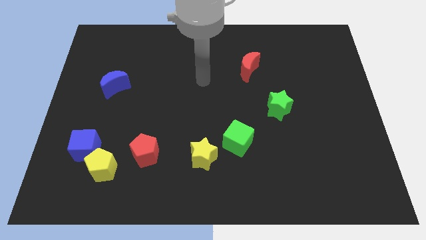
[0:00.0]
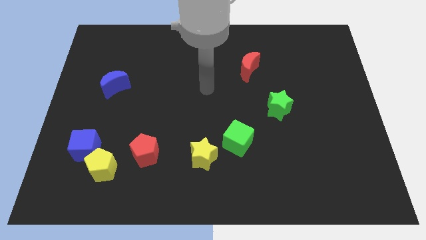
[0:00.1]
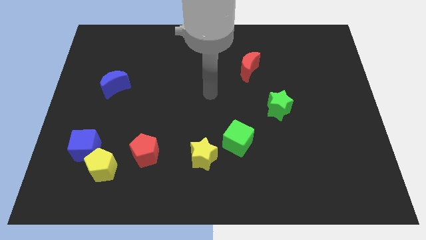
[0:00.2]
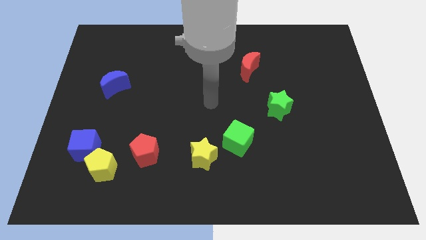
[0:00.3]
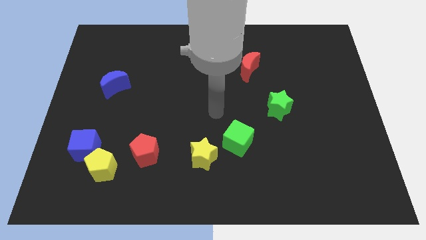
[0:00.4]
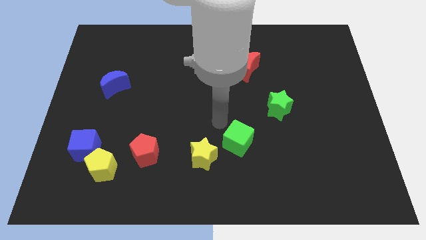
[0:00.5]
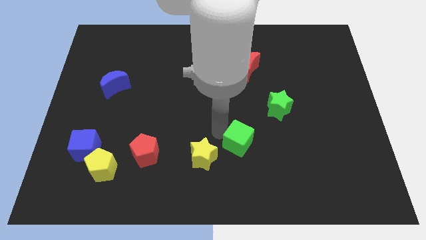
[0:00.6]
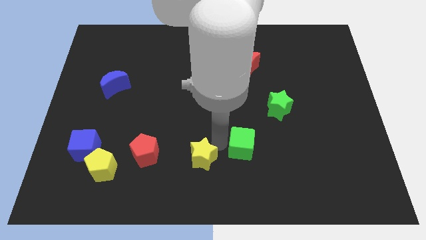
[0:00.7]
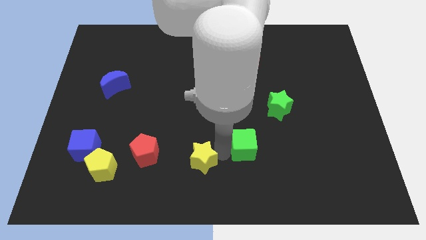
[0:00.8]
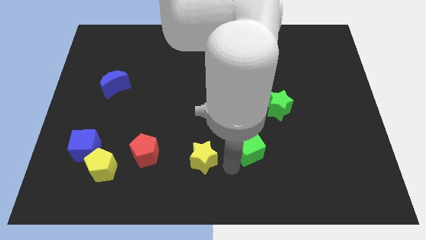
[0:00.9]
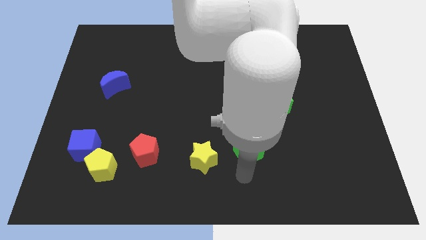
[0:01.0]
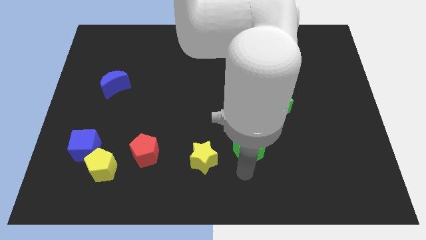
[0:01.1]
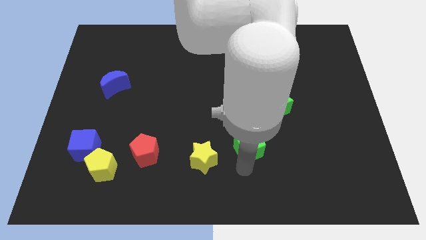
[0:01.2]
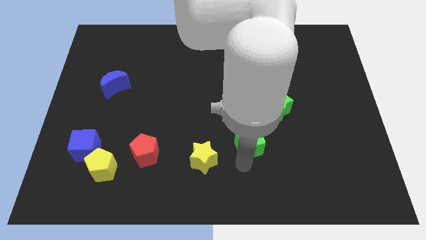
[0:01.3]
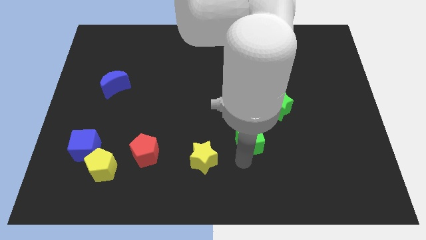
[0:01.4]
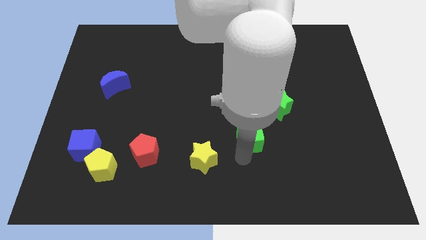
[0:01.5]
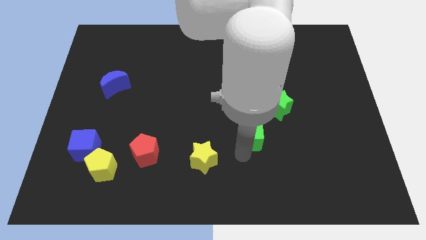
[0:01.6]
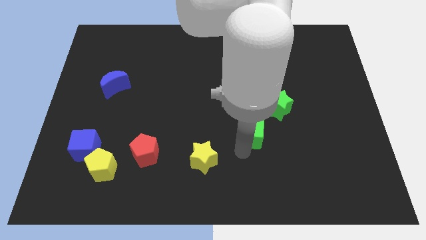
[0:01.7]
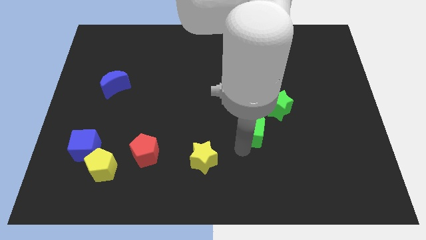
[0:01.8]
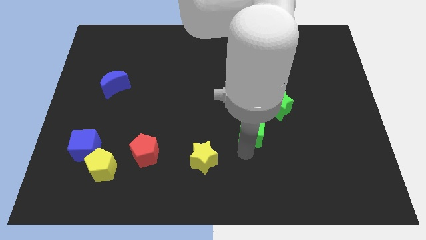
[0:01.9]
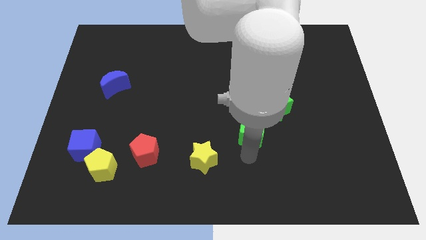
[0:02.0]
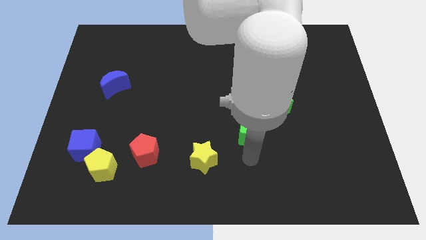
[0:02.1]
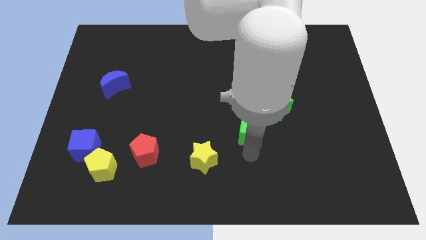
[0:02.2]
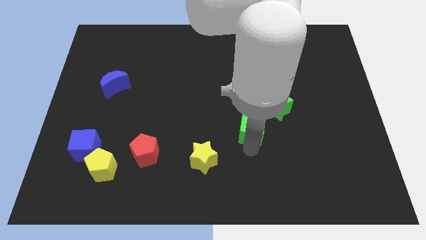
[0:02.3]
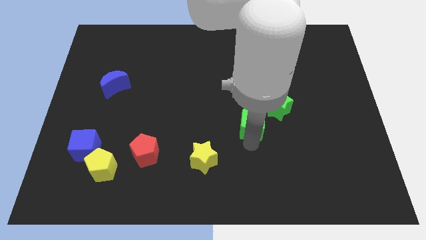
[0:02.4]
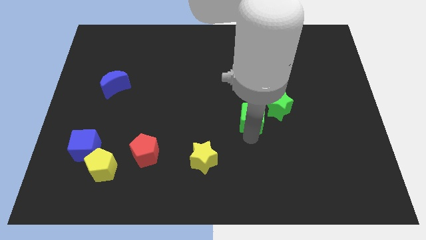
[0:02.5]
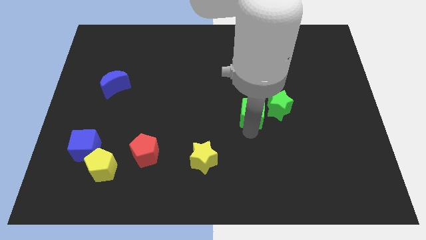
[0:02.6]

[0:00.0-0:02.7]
slightly push the green cube up and to the right

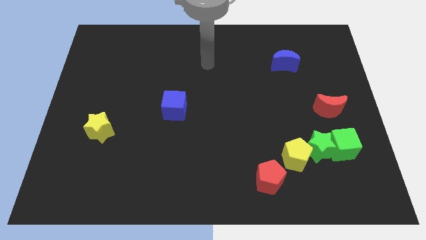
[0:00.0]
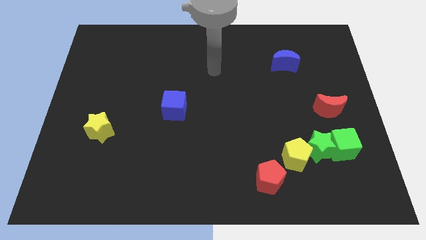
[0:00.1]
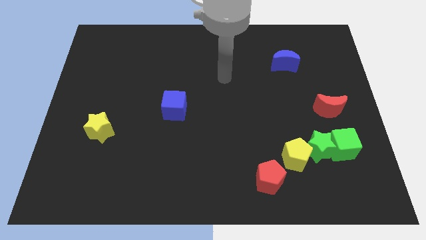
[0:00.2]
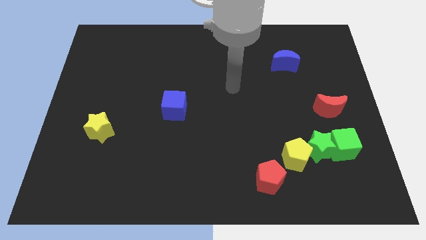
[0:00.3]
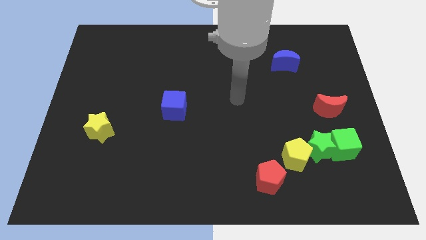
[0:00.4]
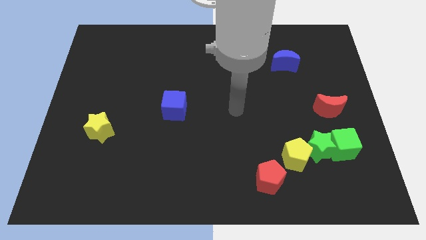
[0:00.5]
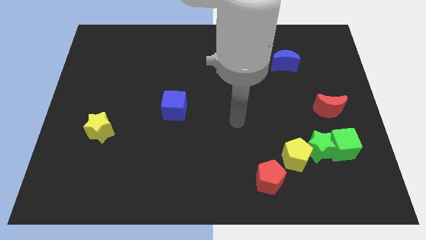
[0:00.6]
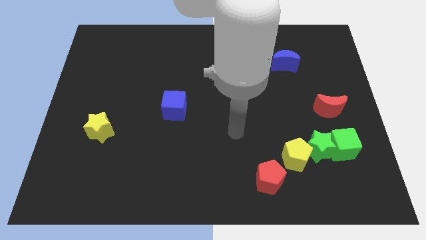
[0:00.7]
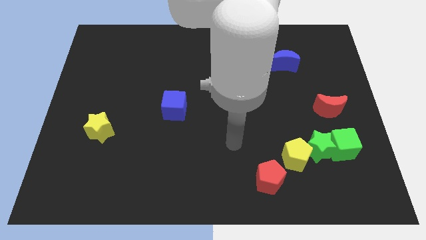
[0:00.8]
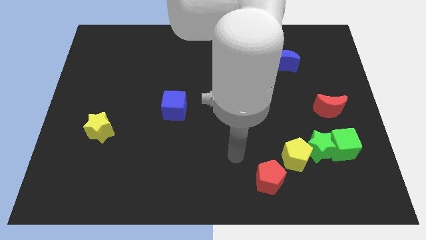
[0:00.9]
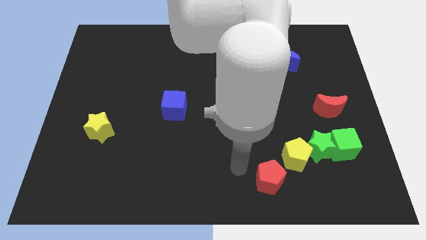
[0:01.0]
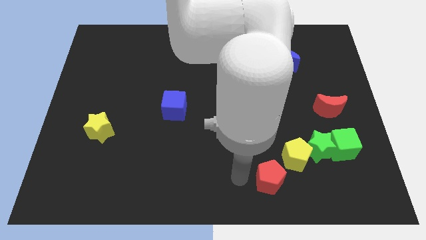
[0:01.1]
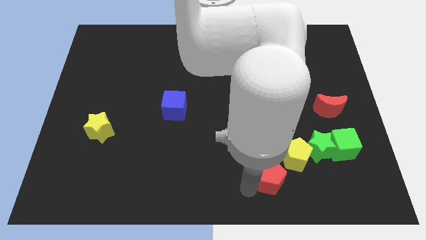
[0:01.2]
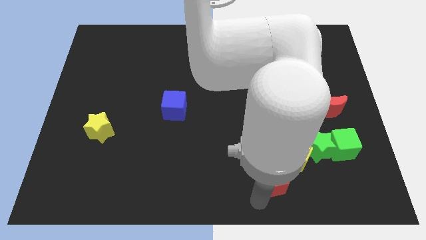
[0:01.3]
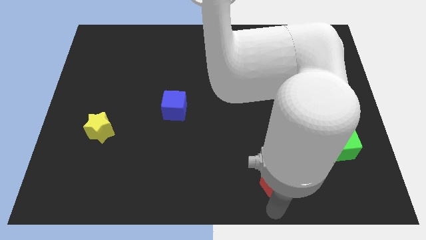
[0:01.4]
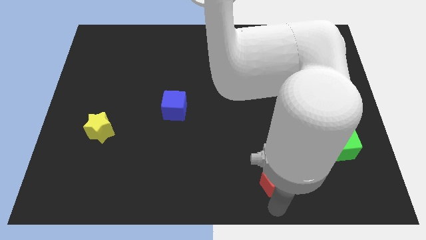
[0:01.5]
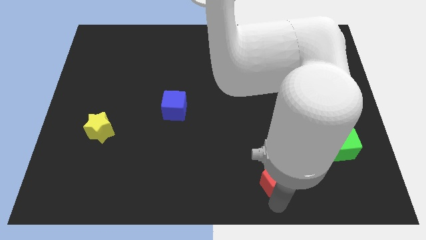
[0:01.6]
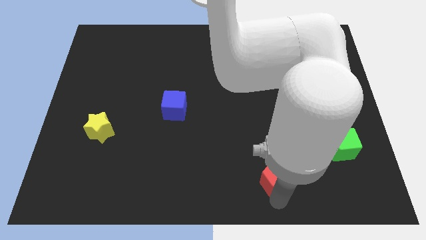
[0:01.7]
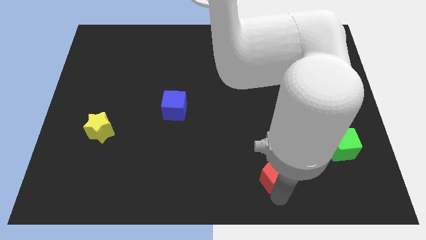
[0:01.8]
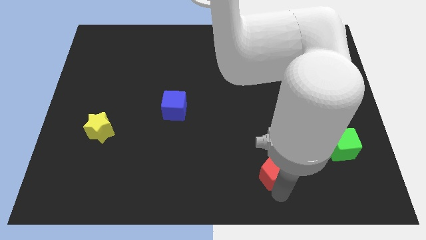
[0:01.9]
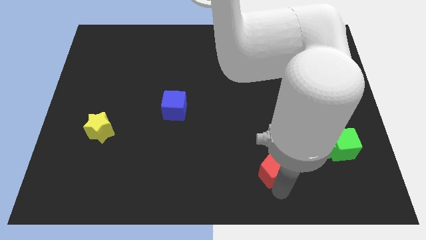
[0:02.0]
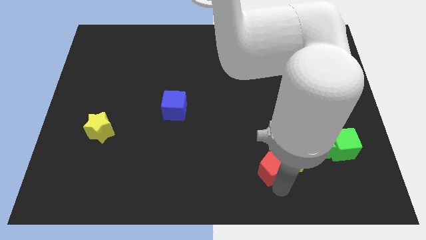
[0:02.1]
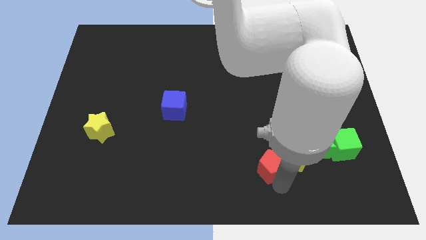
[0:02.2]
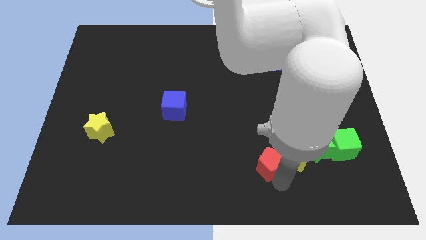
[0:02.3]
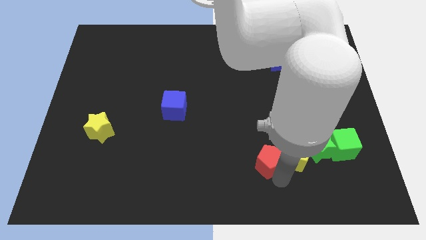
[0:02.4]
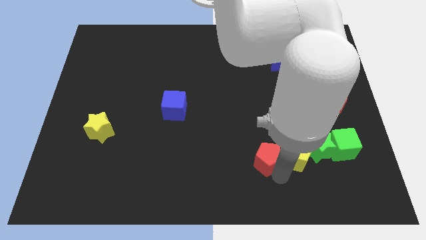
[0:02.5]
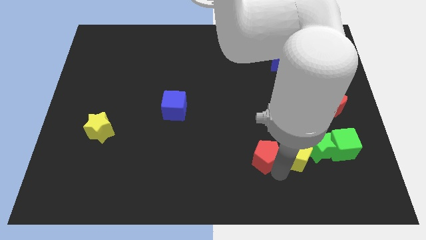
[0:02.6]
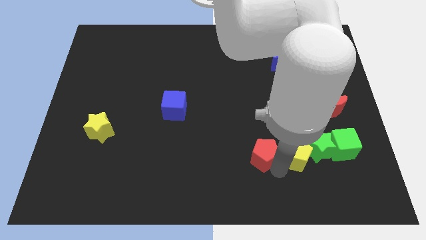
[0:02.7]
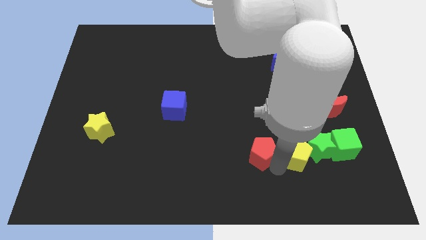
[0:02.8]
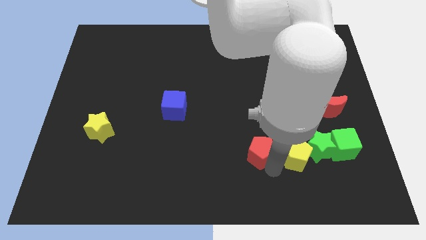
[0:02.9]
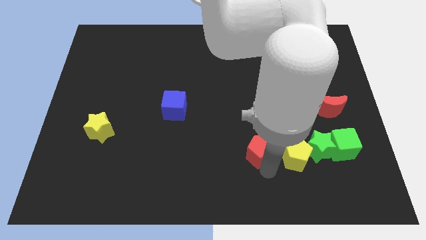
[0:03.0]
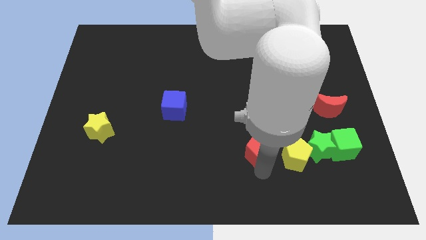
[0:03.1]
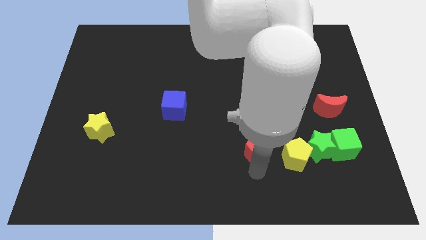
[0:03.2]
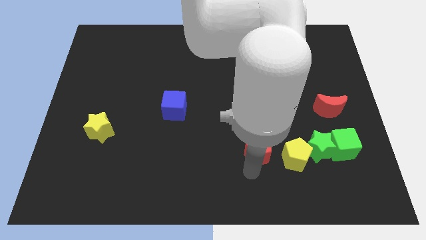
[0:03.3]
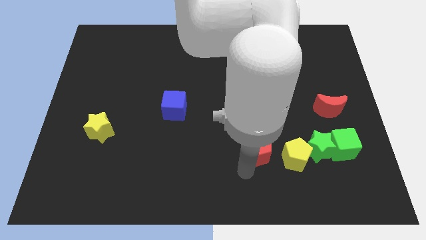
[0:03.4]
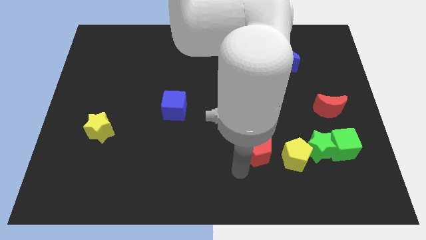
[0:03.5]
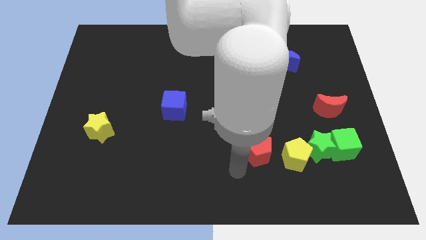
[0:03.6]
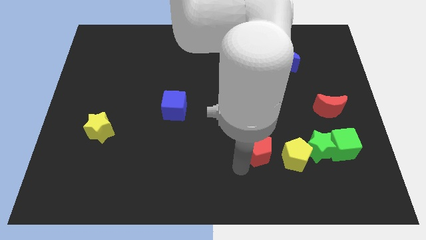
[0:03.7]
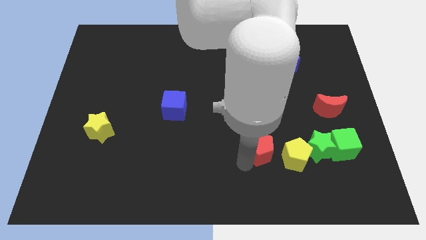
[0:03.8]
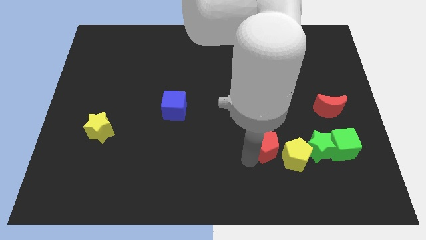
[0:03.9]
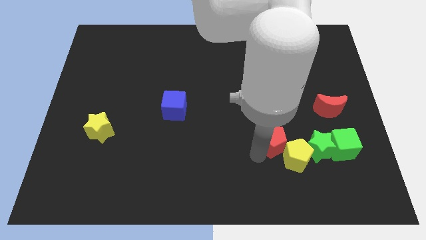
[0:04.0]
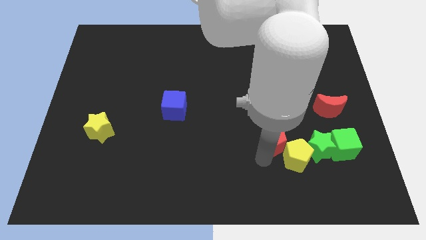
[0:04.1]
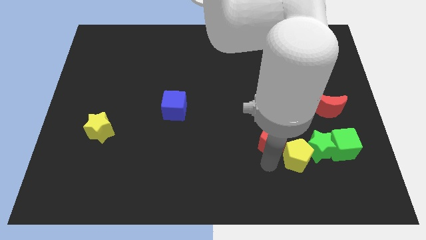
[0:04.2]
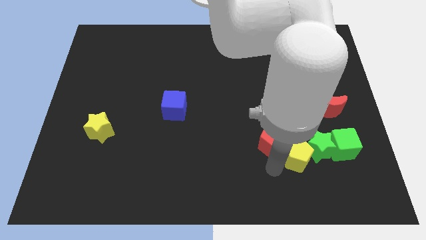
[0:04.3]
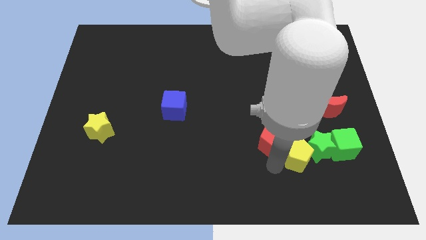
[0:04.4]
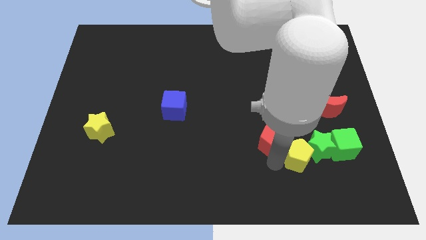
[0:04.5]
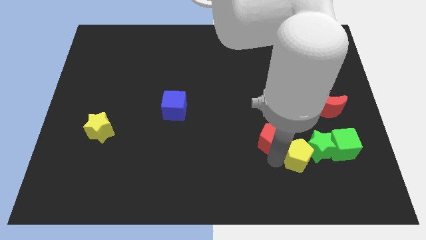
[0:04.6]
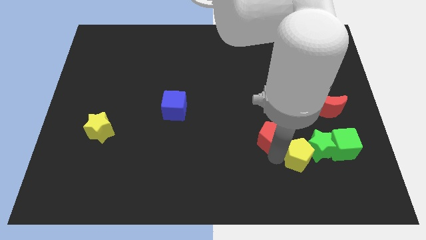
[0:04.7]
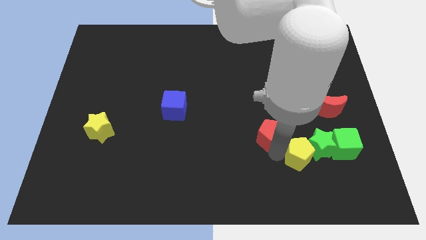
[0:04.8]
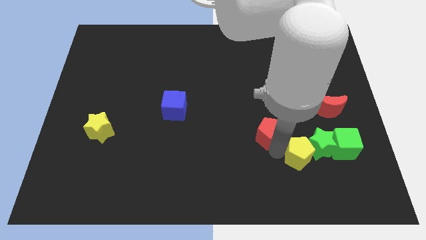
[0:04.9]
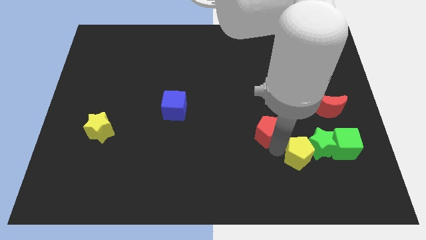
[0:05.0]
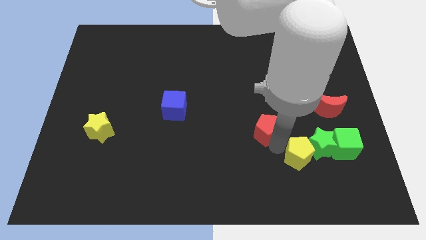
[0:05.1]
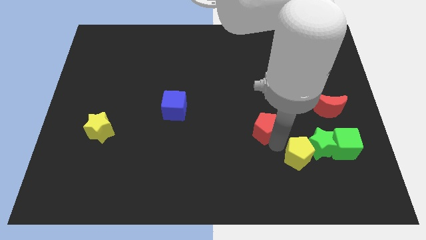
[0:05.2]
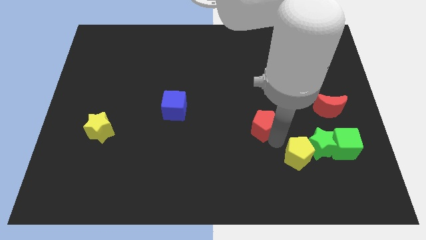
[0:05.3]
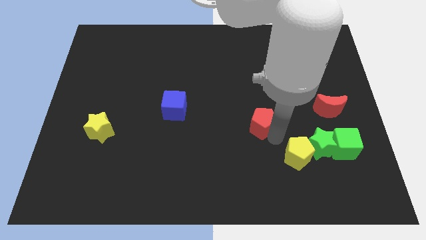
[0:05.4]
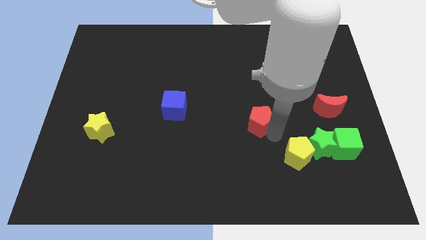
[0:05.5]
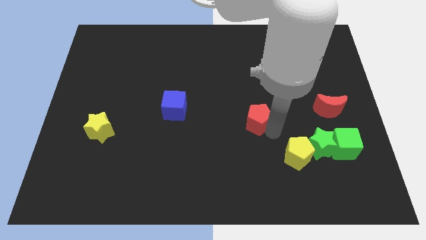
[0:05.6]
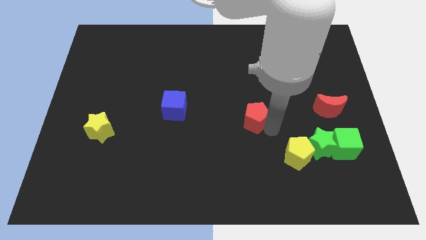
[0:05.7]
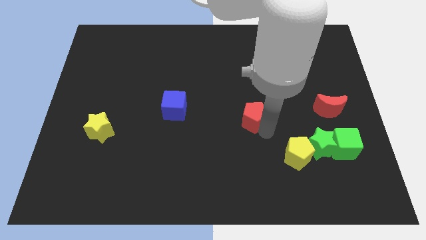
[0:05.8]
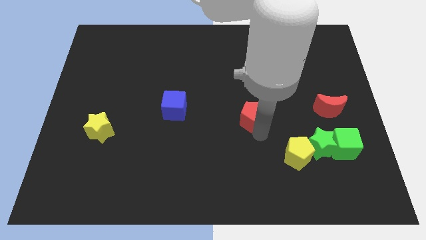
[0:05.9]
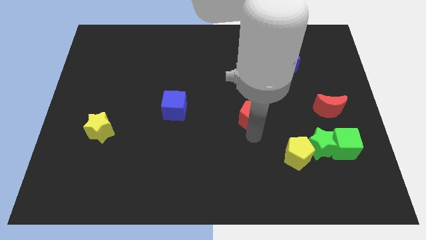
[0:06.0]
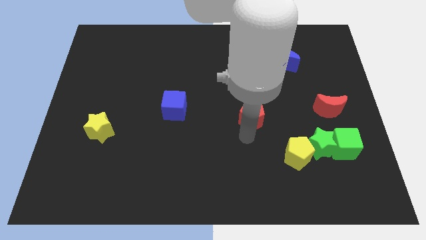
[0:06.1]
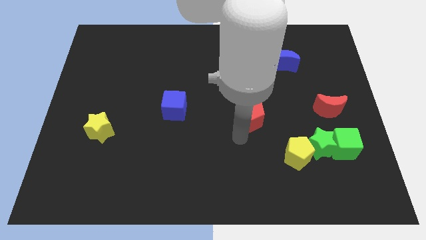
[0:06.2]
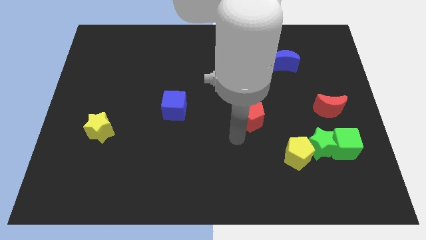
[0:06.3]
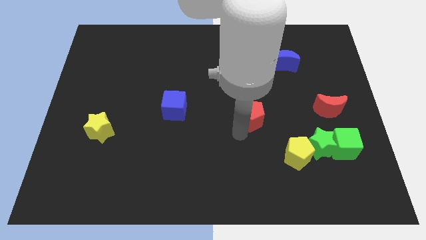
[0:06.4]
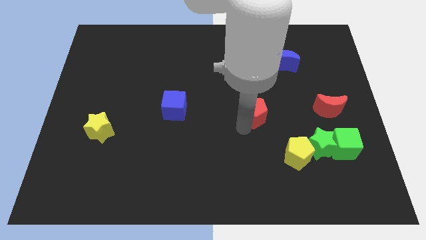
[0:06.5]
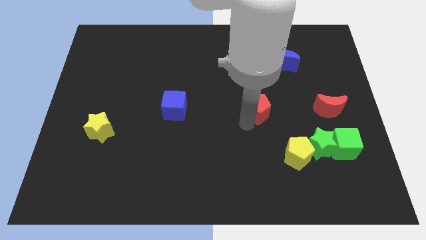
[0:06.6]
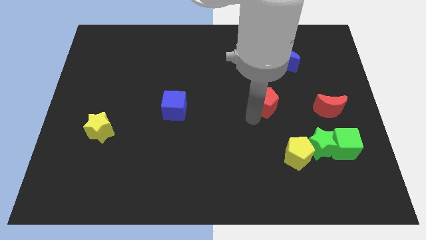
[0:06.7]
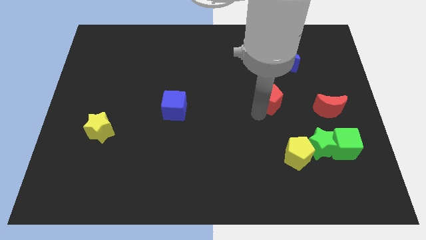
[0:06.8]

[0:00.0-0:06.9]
move the red pentagon up
